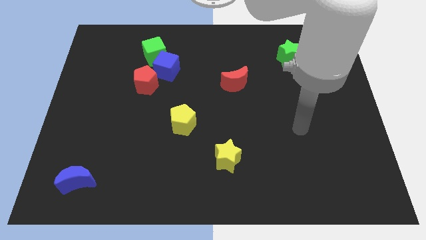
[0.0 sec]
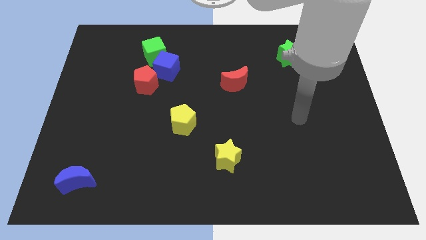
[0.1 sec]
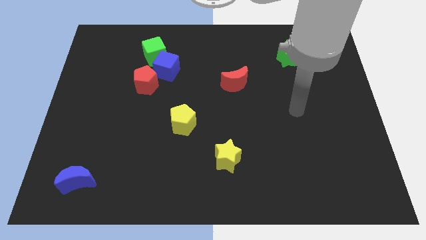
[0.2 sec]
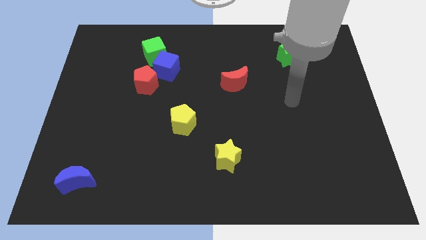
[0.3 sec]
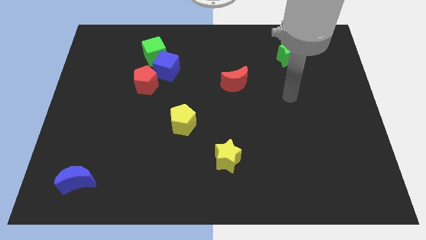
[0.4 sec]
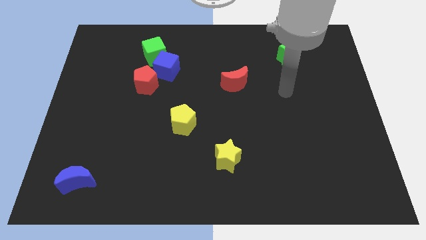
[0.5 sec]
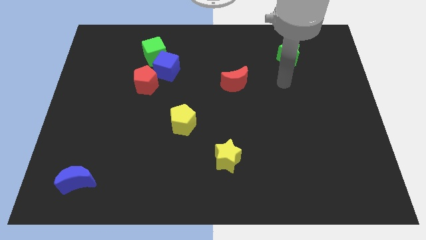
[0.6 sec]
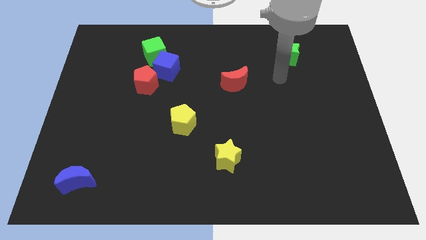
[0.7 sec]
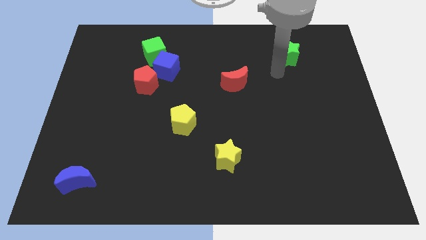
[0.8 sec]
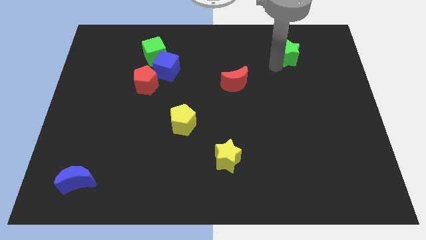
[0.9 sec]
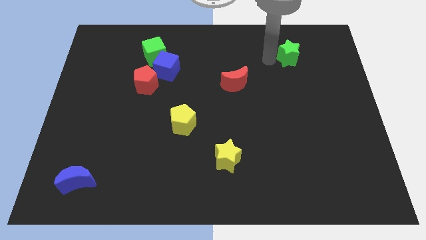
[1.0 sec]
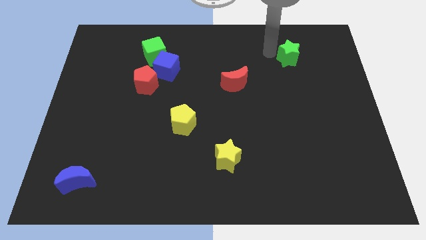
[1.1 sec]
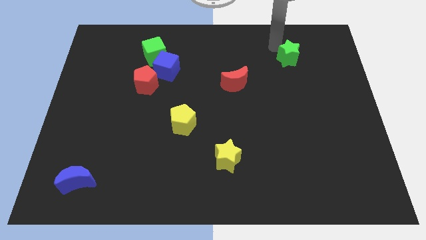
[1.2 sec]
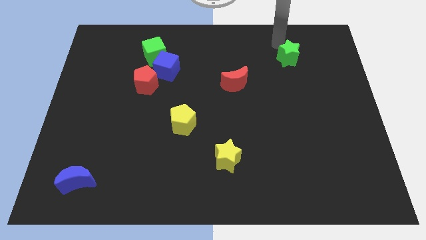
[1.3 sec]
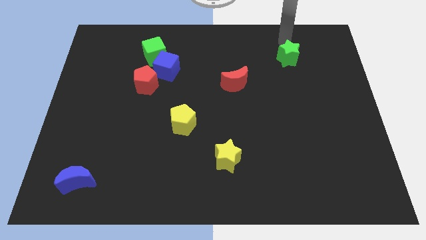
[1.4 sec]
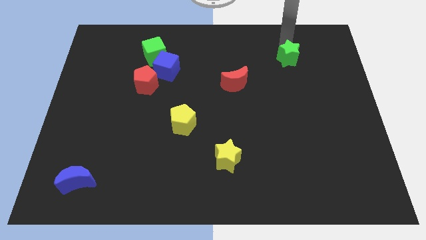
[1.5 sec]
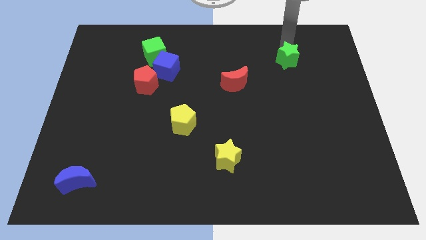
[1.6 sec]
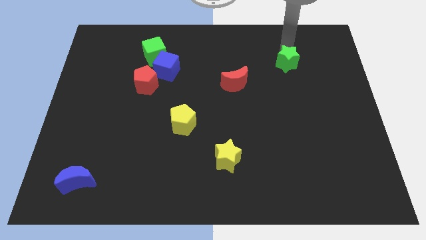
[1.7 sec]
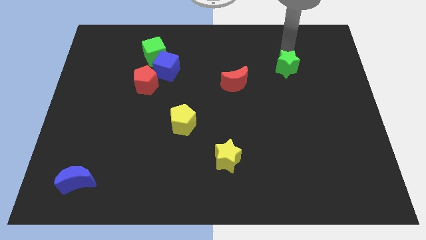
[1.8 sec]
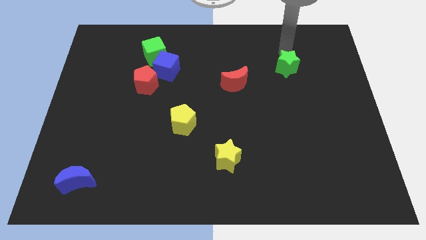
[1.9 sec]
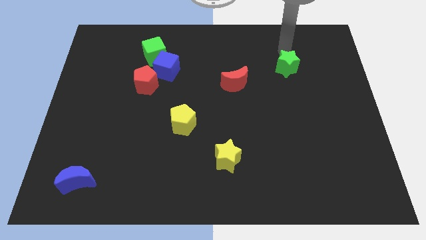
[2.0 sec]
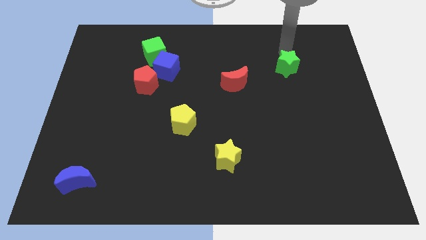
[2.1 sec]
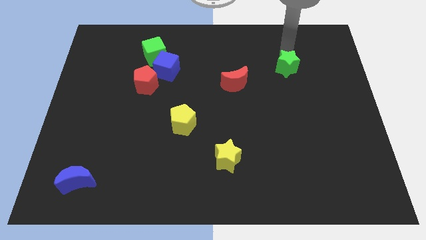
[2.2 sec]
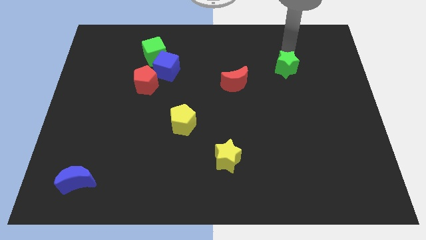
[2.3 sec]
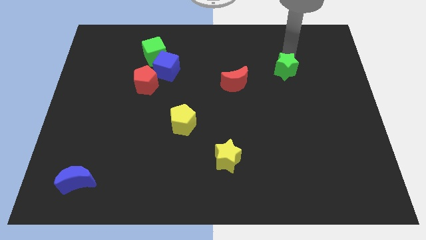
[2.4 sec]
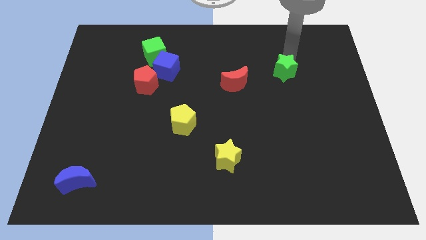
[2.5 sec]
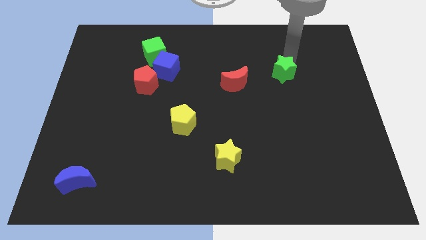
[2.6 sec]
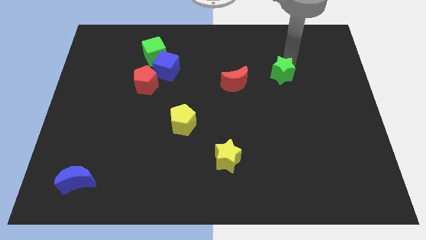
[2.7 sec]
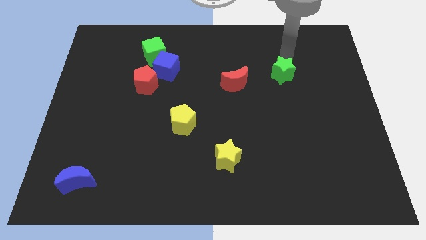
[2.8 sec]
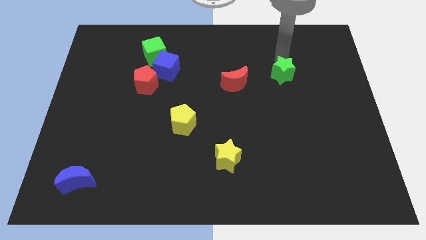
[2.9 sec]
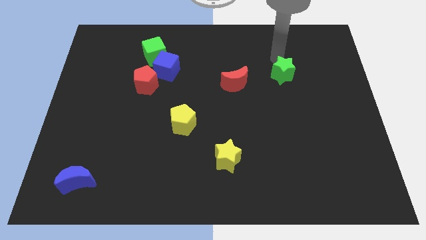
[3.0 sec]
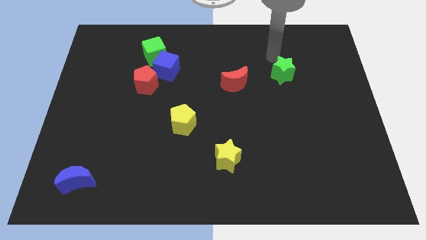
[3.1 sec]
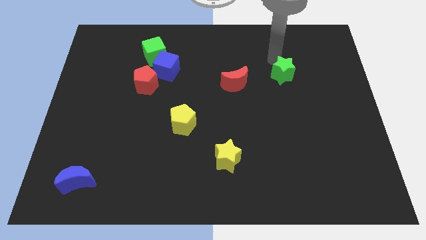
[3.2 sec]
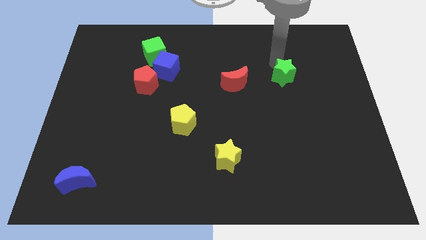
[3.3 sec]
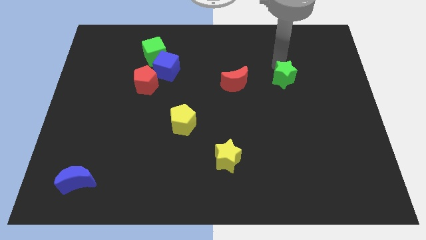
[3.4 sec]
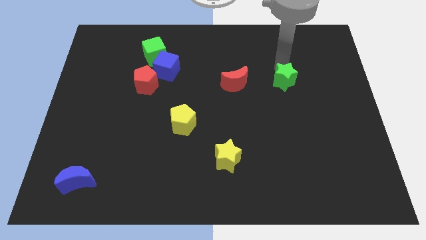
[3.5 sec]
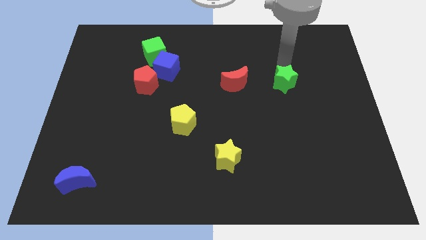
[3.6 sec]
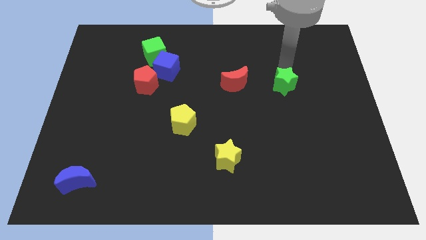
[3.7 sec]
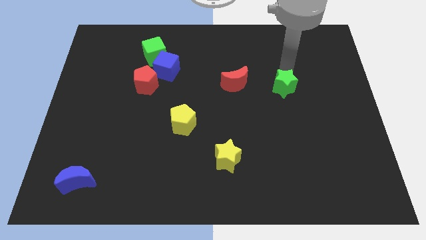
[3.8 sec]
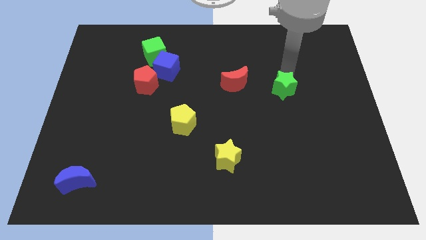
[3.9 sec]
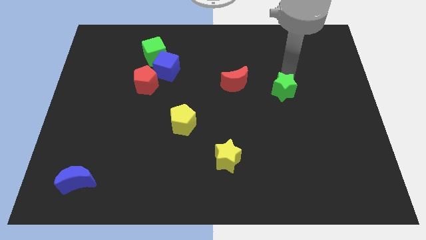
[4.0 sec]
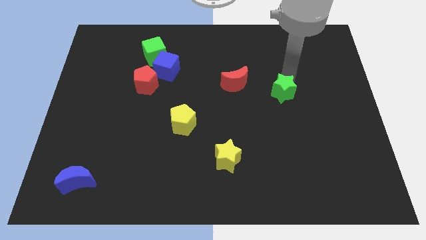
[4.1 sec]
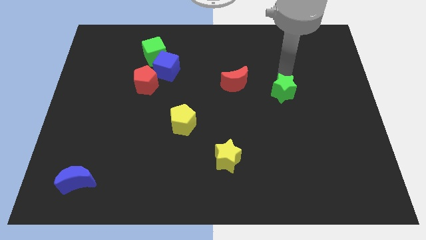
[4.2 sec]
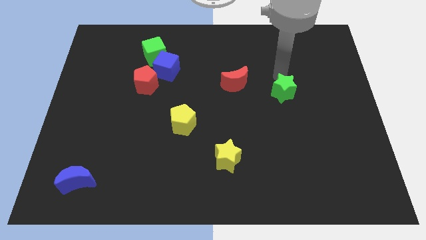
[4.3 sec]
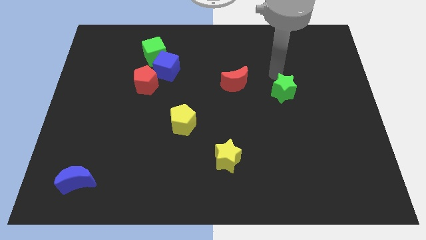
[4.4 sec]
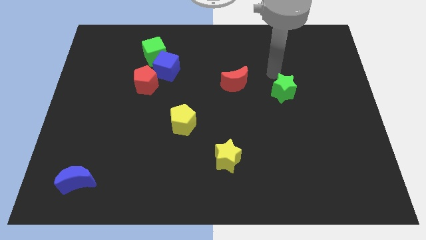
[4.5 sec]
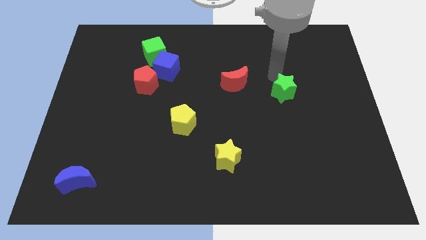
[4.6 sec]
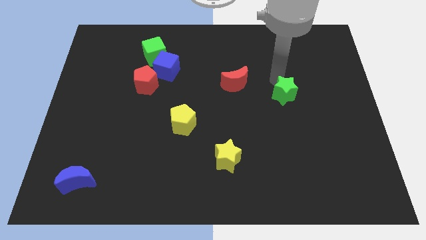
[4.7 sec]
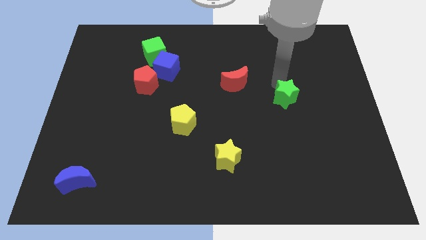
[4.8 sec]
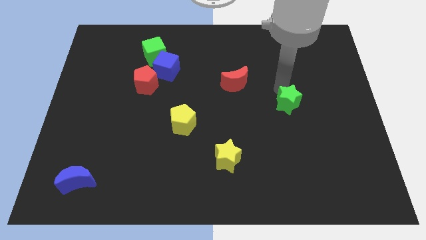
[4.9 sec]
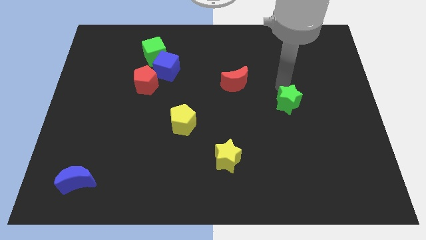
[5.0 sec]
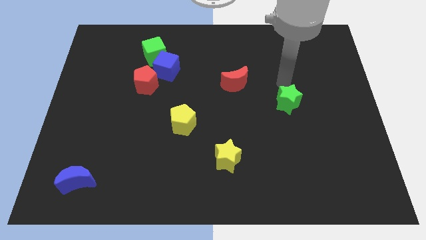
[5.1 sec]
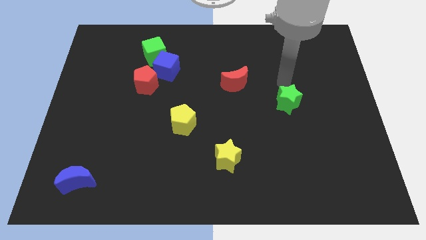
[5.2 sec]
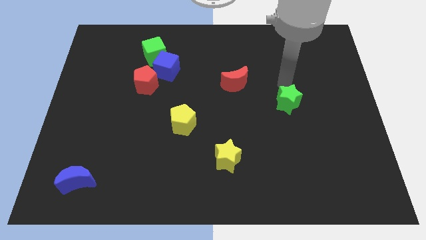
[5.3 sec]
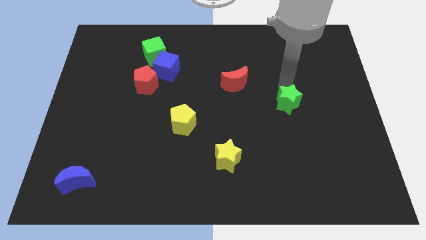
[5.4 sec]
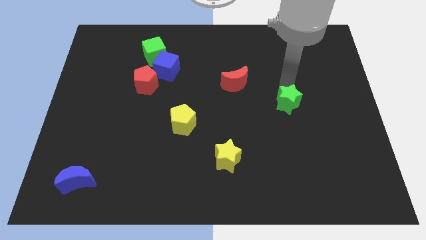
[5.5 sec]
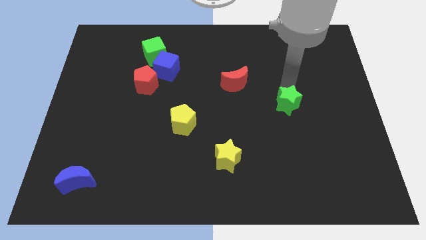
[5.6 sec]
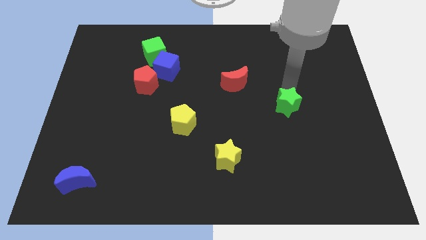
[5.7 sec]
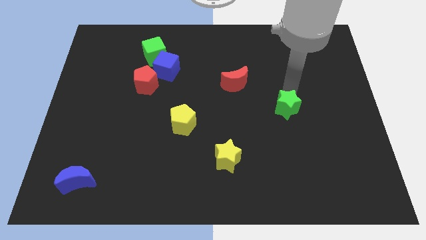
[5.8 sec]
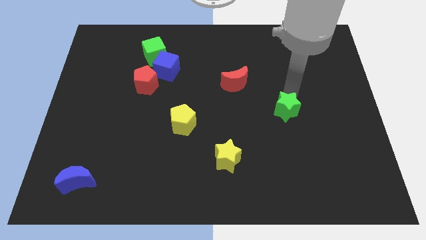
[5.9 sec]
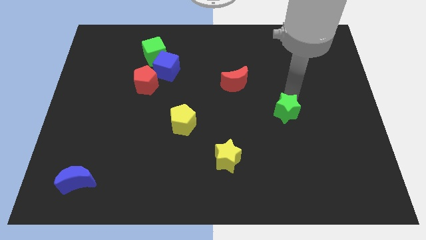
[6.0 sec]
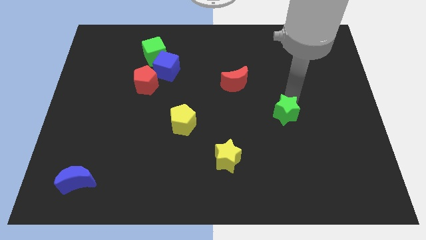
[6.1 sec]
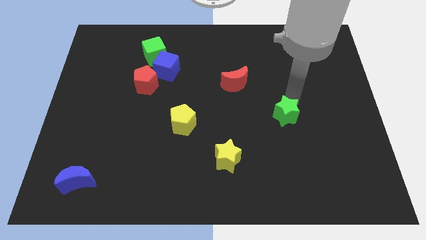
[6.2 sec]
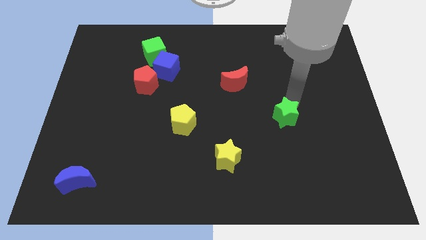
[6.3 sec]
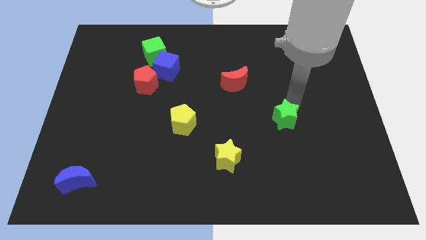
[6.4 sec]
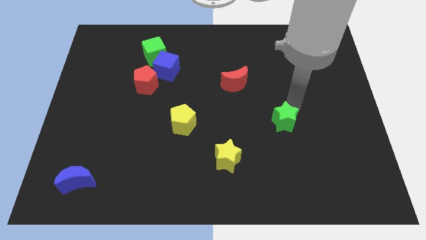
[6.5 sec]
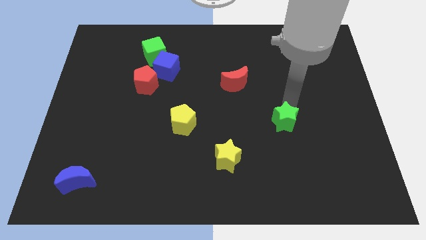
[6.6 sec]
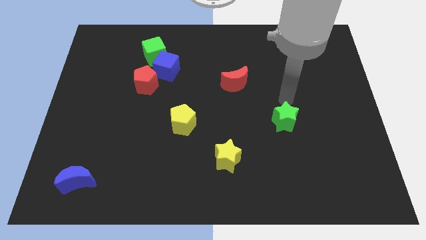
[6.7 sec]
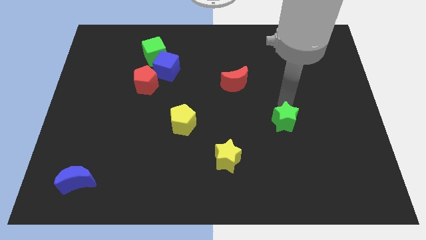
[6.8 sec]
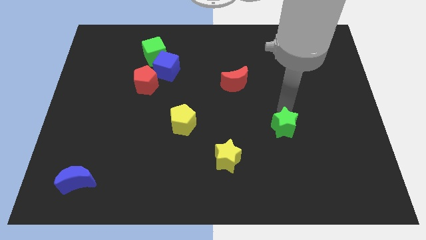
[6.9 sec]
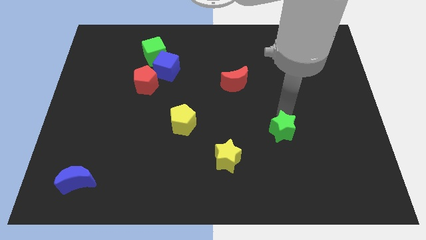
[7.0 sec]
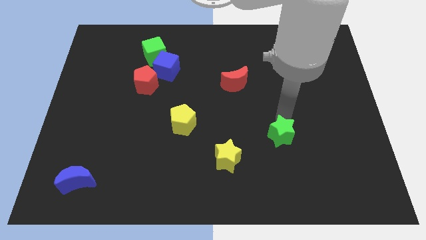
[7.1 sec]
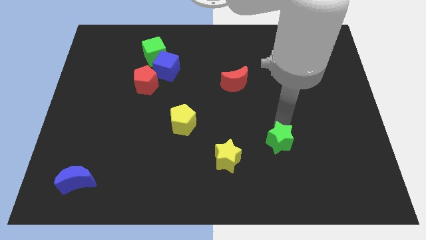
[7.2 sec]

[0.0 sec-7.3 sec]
put the green star just right of the yellow star

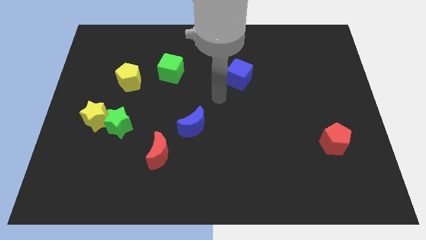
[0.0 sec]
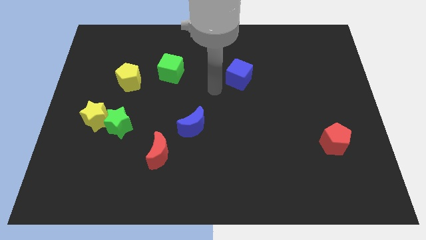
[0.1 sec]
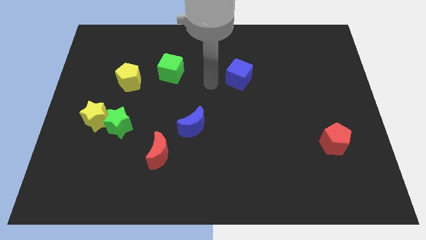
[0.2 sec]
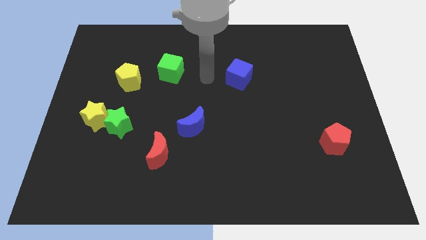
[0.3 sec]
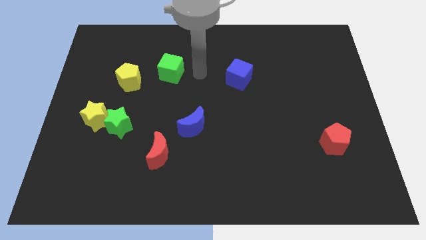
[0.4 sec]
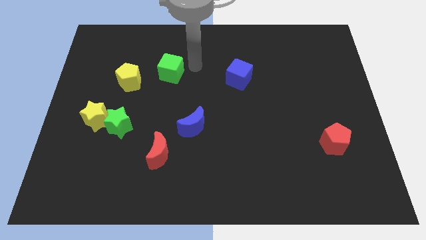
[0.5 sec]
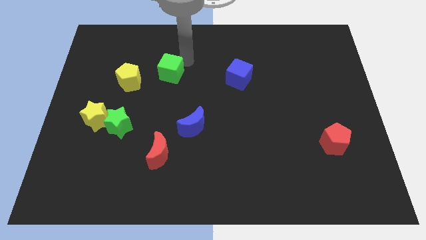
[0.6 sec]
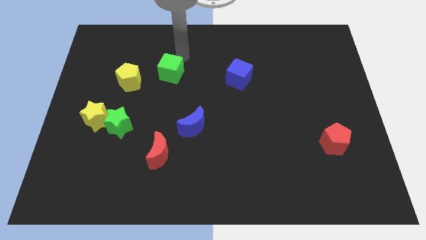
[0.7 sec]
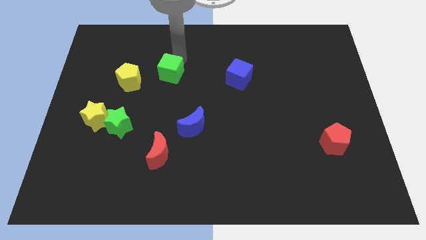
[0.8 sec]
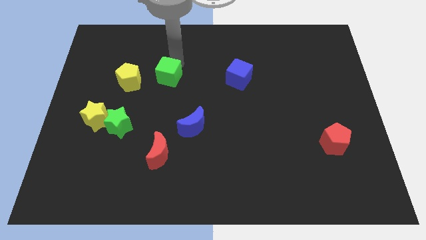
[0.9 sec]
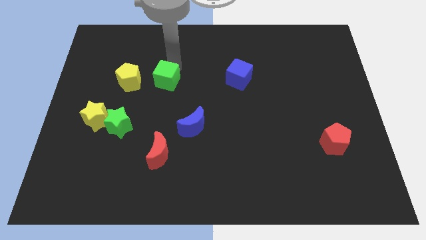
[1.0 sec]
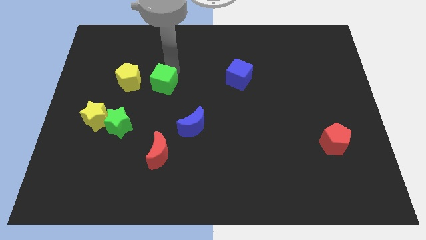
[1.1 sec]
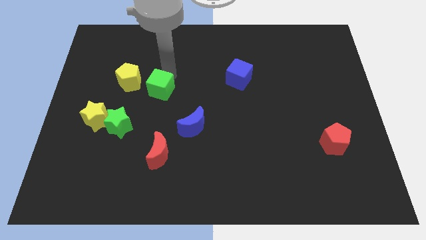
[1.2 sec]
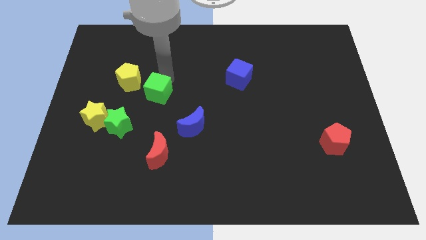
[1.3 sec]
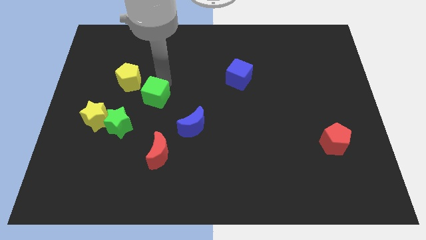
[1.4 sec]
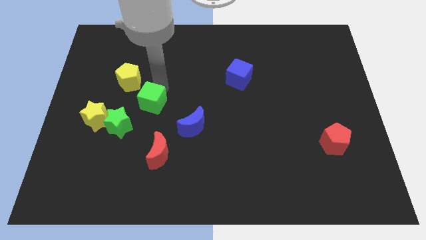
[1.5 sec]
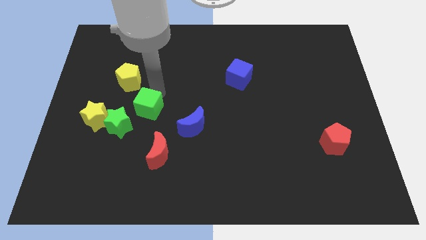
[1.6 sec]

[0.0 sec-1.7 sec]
move the green cube to the right side of the yellow star
